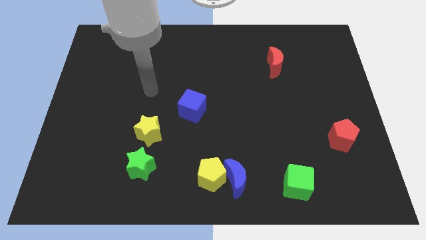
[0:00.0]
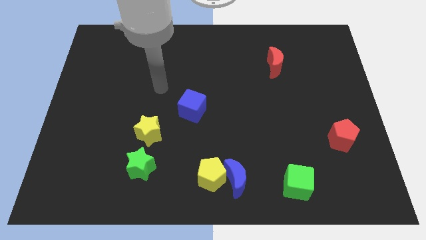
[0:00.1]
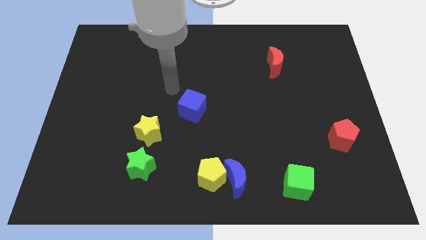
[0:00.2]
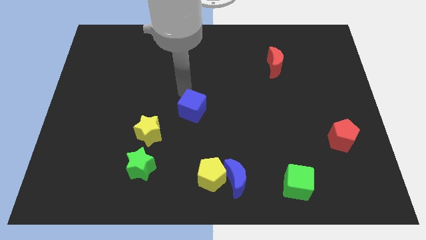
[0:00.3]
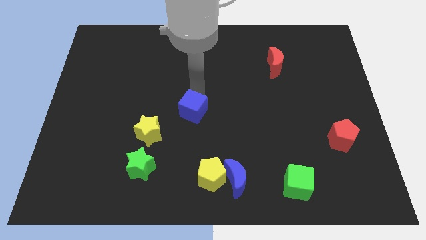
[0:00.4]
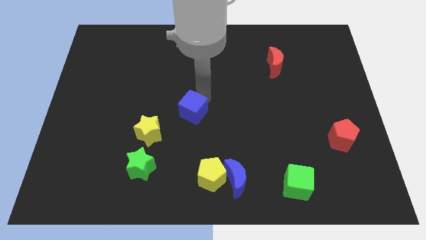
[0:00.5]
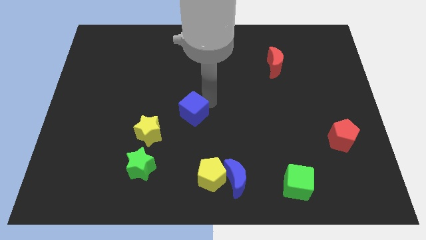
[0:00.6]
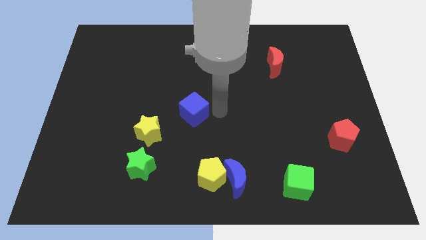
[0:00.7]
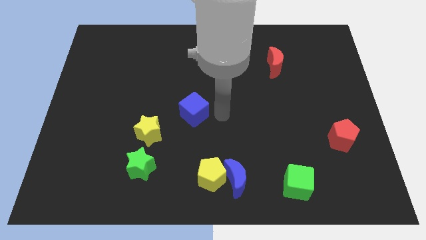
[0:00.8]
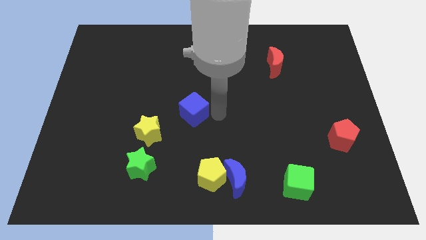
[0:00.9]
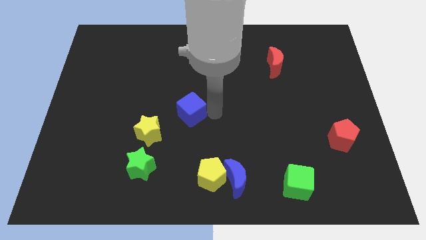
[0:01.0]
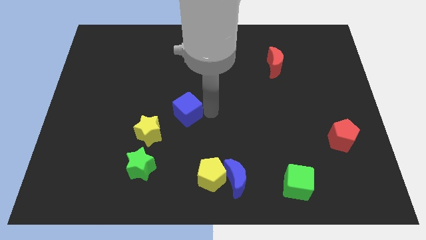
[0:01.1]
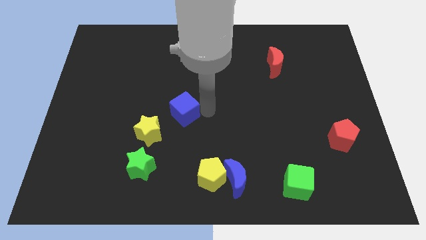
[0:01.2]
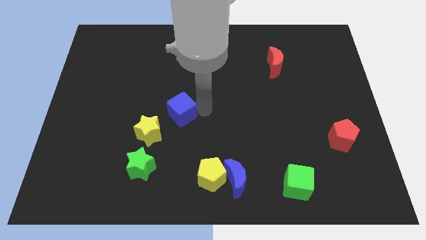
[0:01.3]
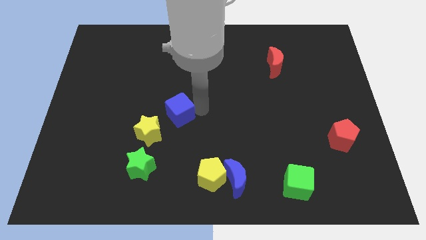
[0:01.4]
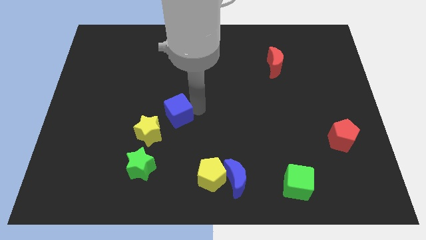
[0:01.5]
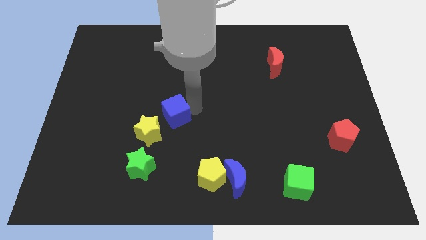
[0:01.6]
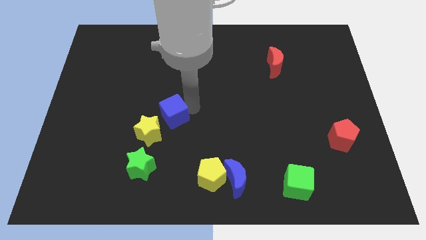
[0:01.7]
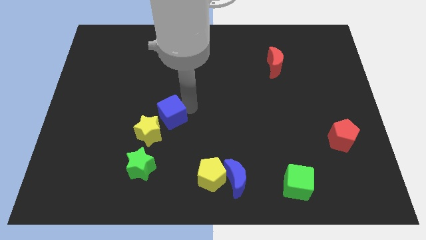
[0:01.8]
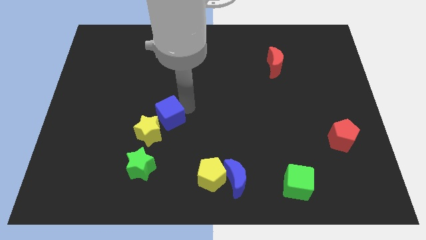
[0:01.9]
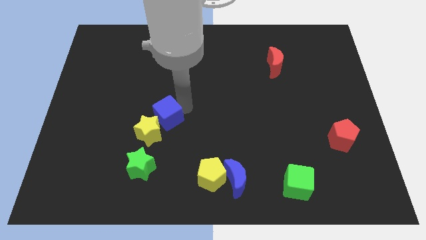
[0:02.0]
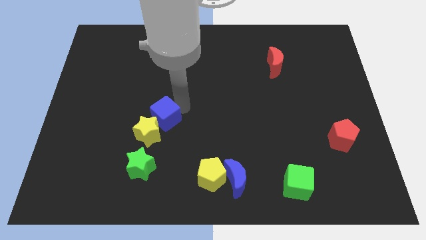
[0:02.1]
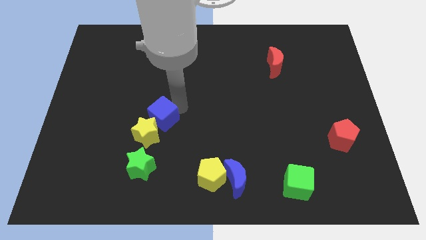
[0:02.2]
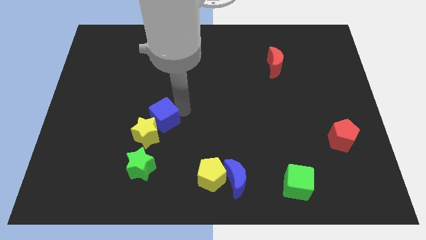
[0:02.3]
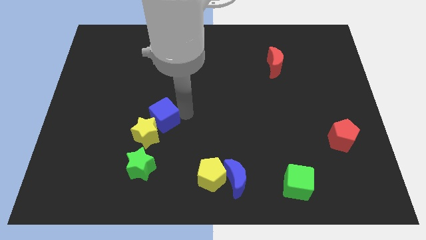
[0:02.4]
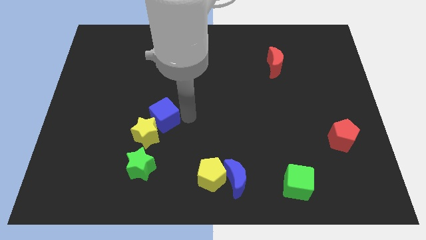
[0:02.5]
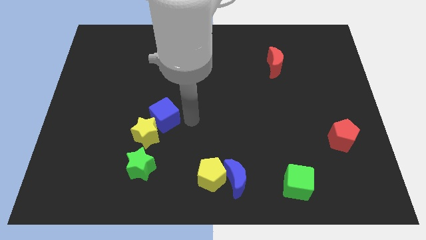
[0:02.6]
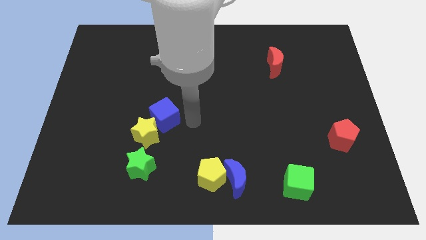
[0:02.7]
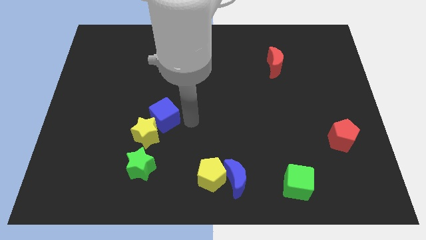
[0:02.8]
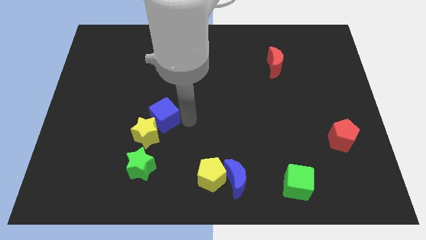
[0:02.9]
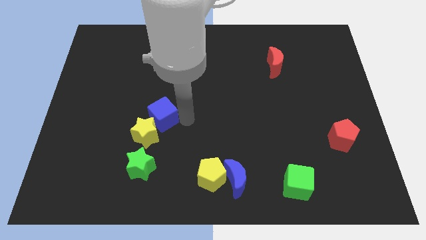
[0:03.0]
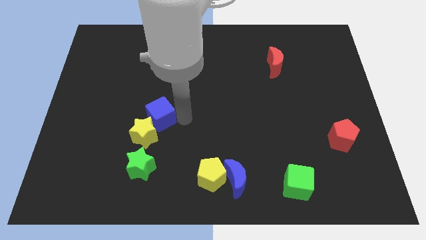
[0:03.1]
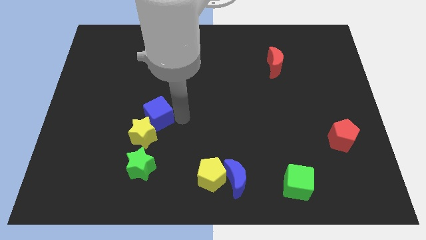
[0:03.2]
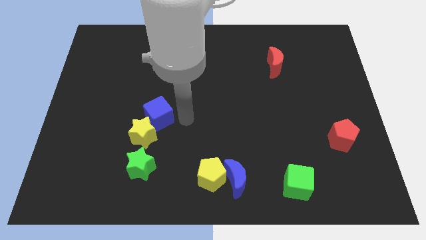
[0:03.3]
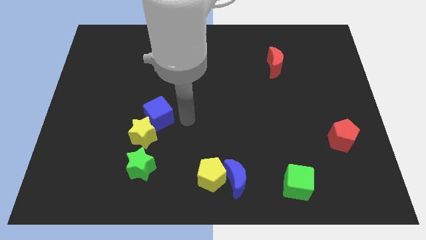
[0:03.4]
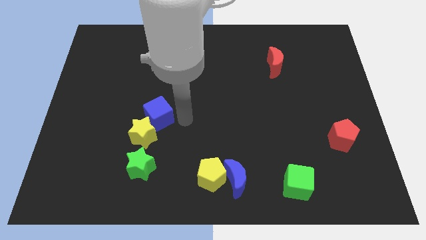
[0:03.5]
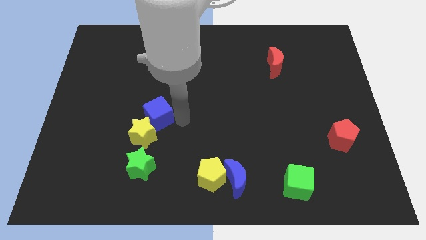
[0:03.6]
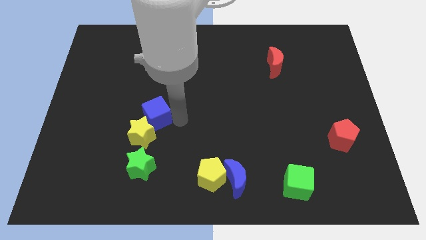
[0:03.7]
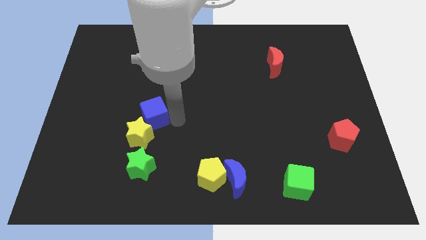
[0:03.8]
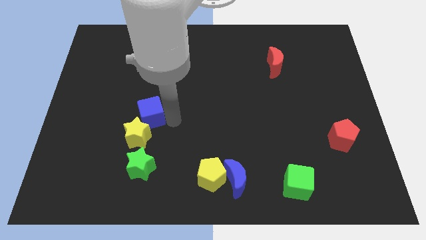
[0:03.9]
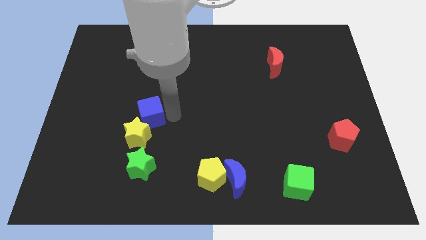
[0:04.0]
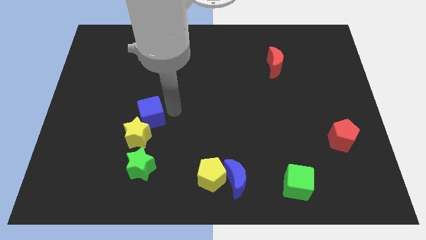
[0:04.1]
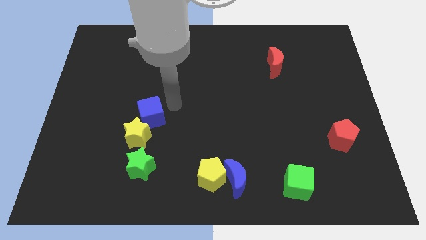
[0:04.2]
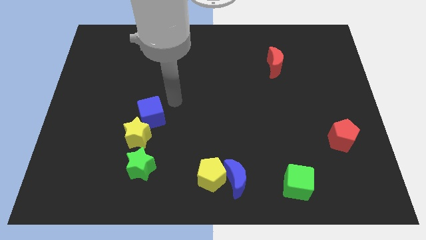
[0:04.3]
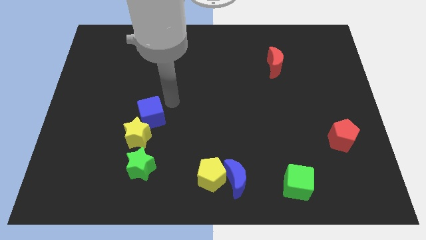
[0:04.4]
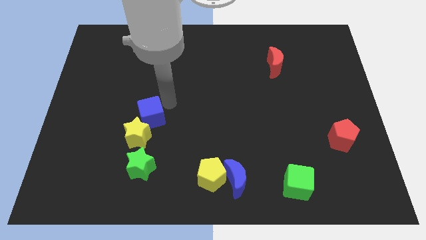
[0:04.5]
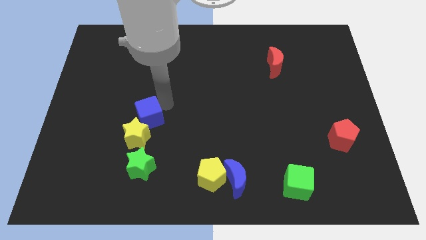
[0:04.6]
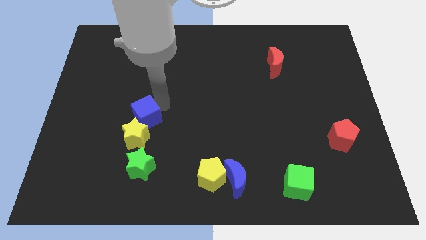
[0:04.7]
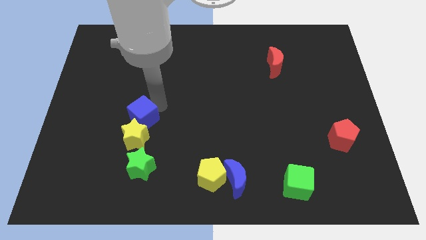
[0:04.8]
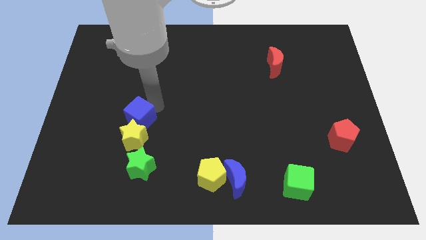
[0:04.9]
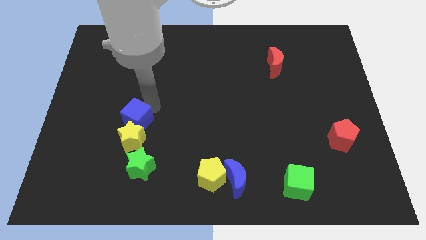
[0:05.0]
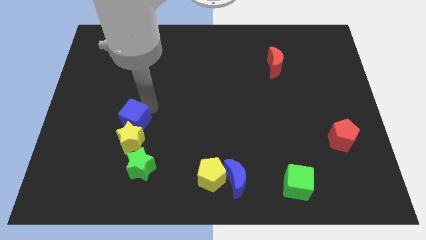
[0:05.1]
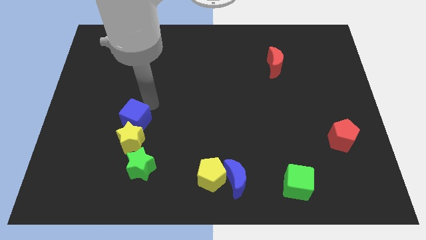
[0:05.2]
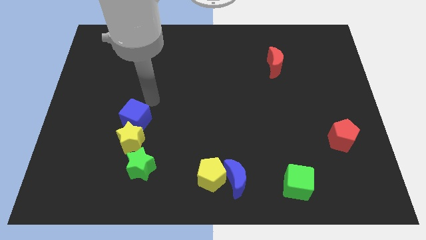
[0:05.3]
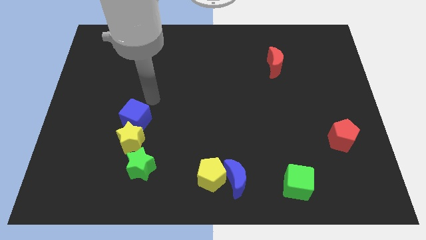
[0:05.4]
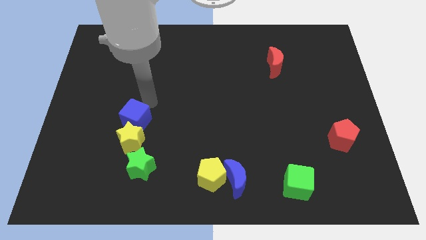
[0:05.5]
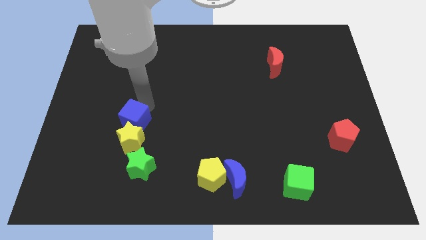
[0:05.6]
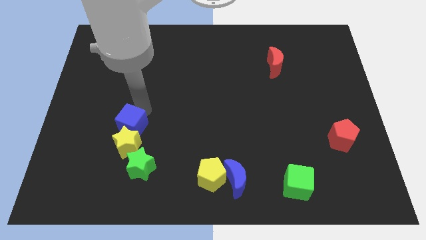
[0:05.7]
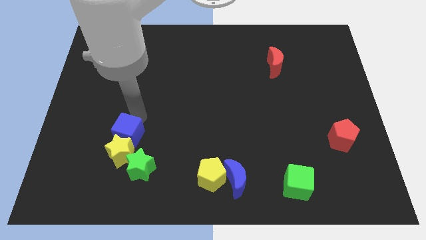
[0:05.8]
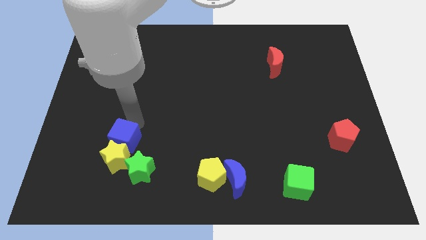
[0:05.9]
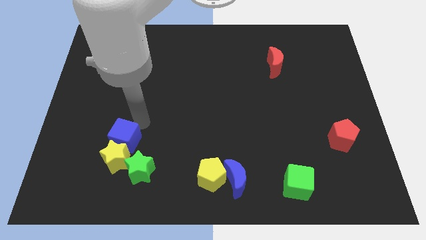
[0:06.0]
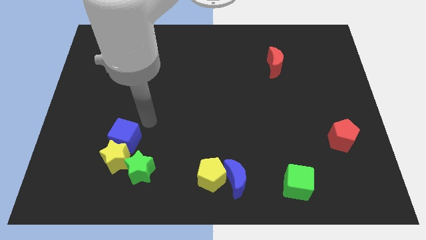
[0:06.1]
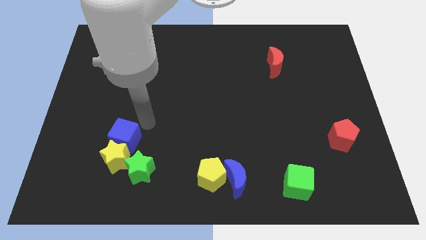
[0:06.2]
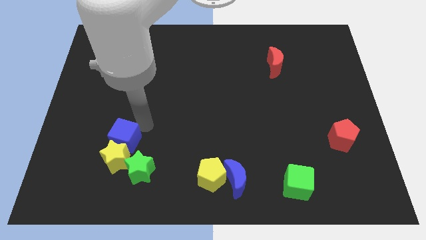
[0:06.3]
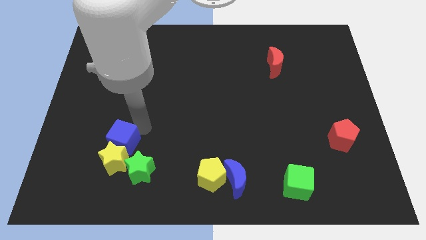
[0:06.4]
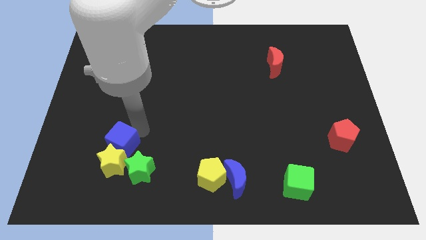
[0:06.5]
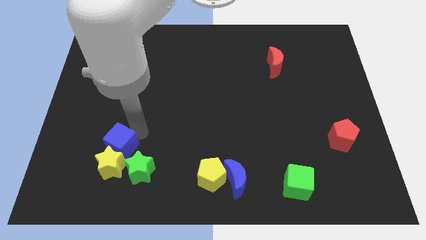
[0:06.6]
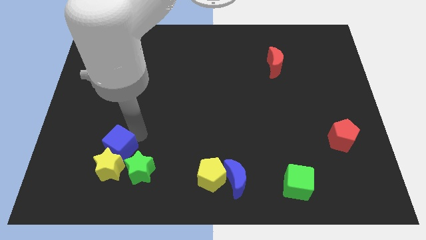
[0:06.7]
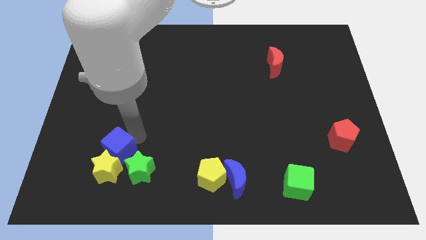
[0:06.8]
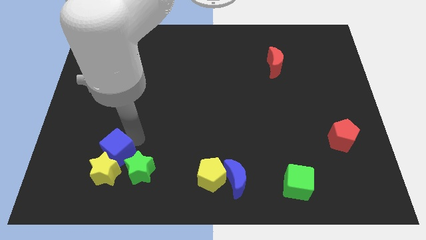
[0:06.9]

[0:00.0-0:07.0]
push the blue cube to the left side of the green star

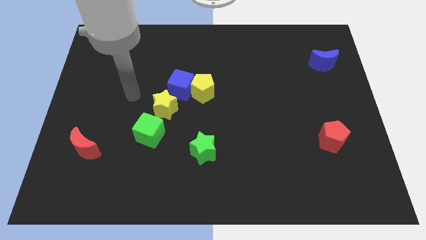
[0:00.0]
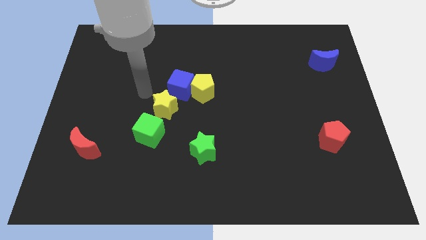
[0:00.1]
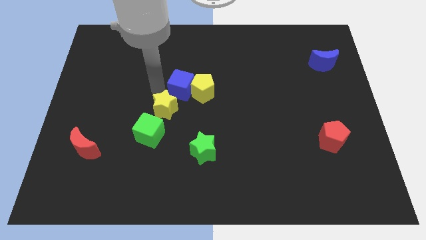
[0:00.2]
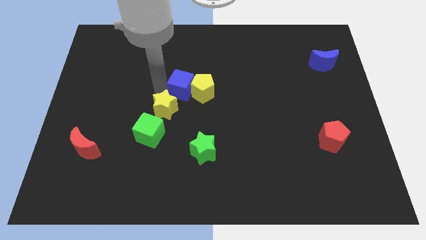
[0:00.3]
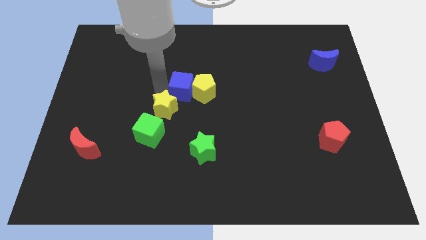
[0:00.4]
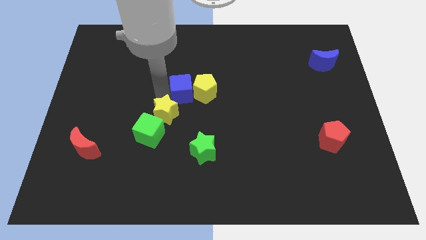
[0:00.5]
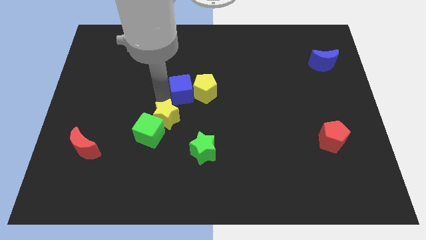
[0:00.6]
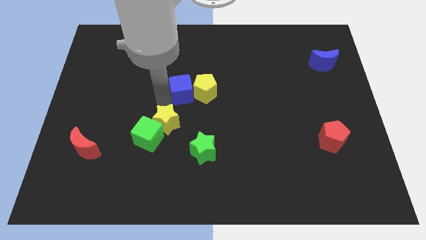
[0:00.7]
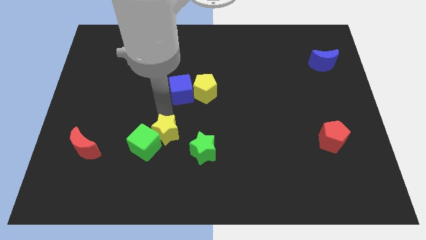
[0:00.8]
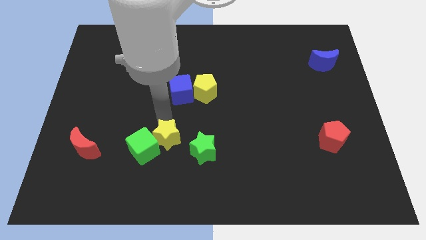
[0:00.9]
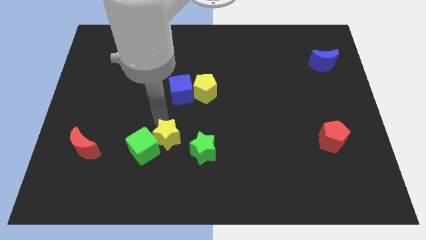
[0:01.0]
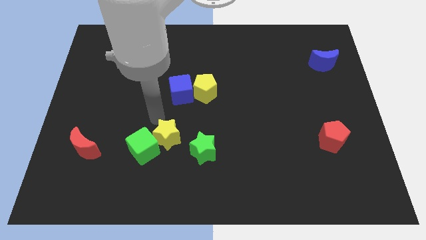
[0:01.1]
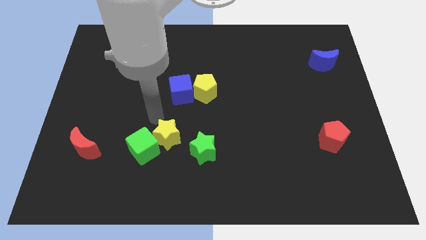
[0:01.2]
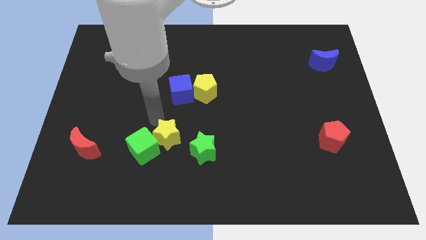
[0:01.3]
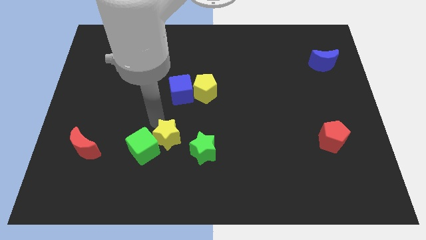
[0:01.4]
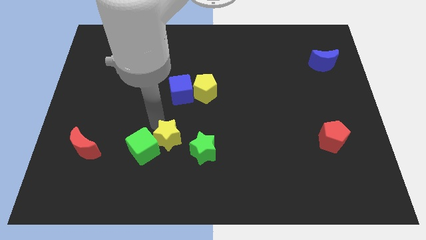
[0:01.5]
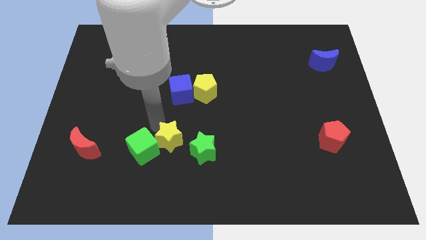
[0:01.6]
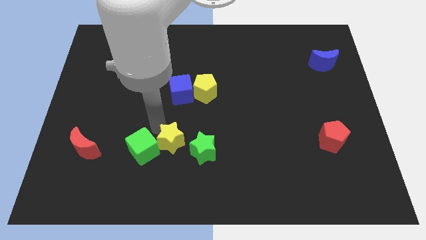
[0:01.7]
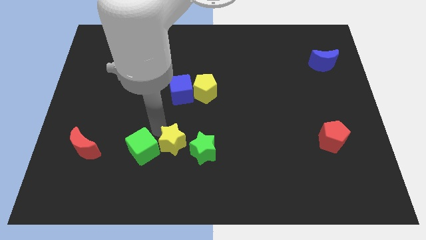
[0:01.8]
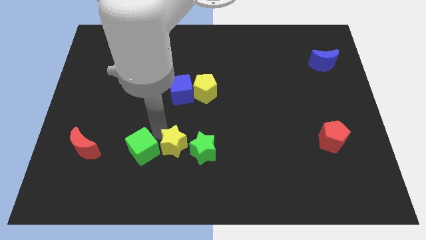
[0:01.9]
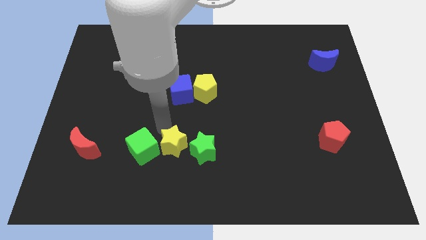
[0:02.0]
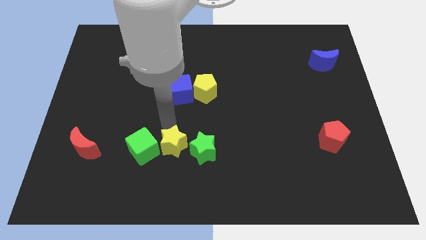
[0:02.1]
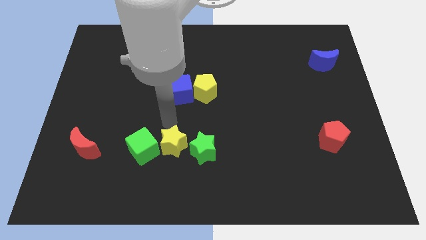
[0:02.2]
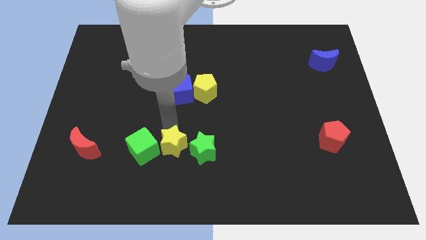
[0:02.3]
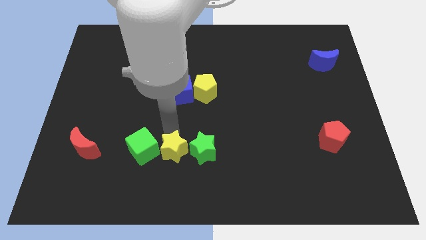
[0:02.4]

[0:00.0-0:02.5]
move the yellow star to the bottom left of the green star
